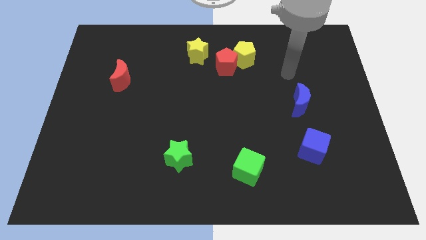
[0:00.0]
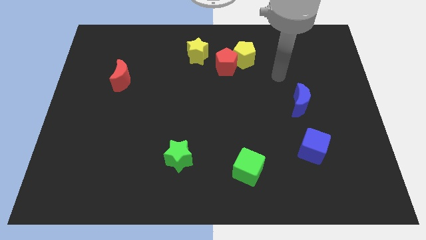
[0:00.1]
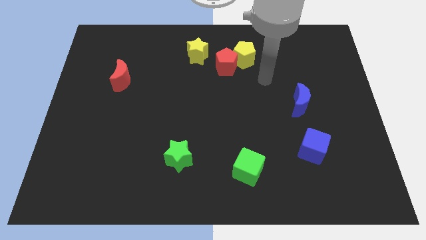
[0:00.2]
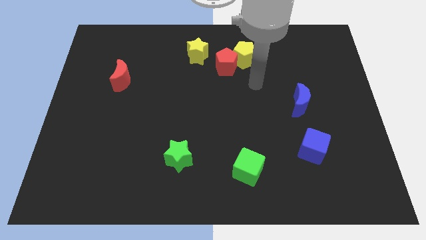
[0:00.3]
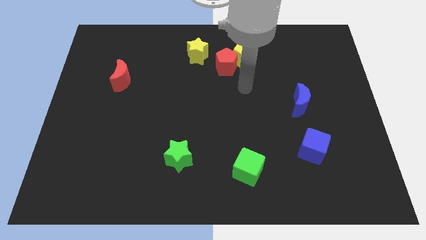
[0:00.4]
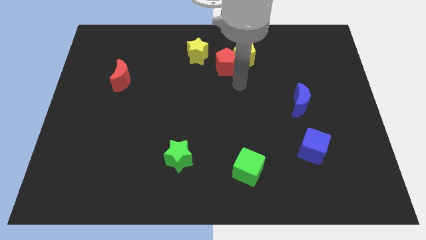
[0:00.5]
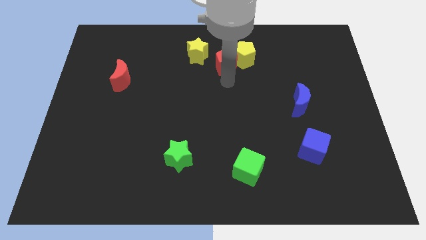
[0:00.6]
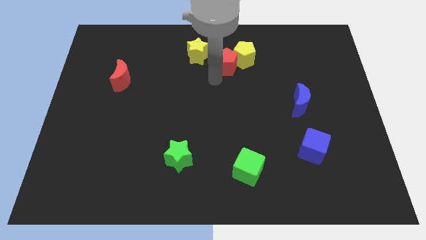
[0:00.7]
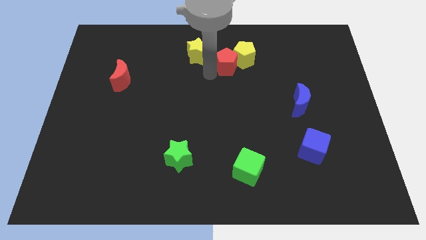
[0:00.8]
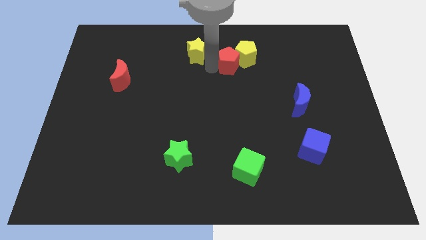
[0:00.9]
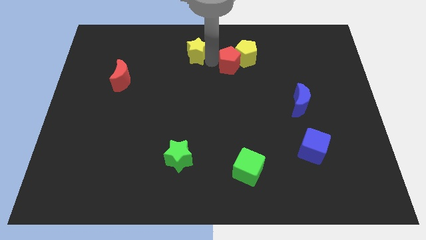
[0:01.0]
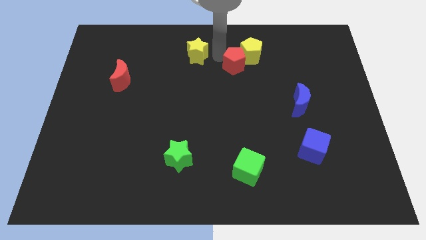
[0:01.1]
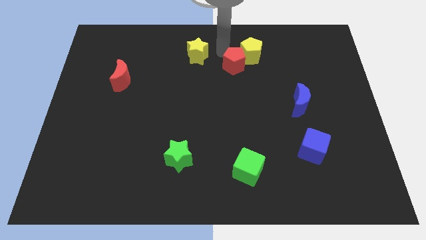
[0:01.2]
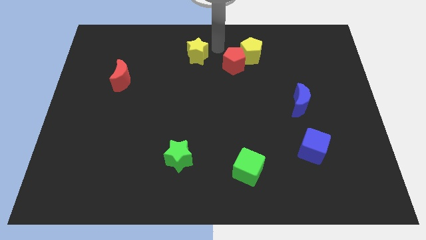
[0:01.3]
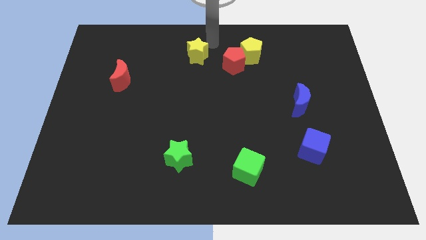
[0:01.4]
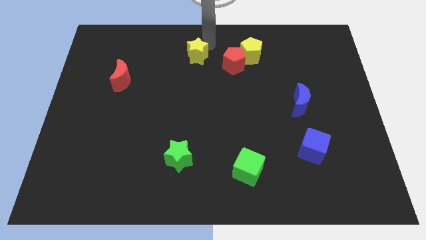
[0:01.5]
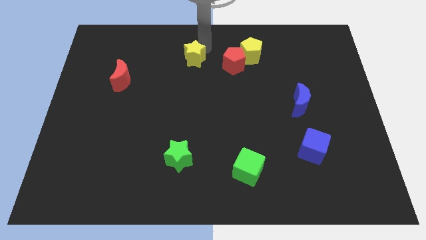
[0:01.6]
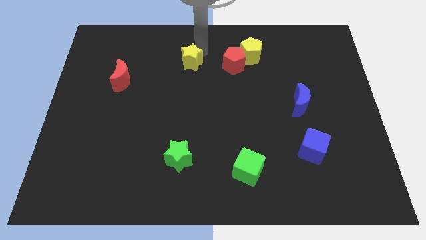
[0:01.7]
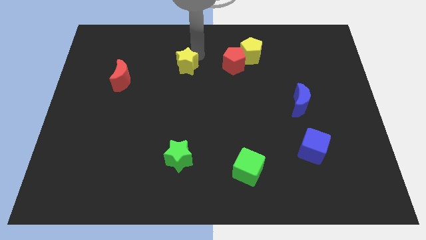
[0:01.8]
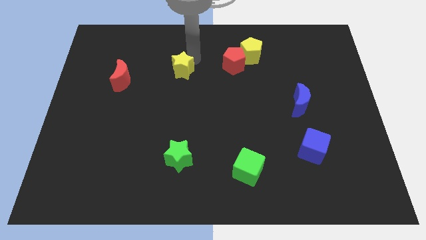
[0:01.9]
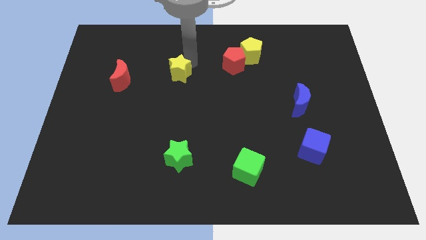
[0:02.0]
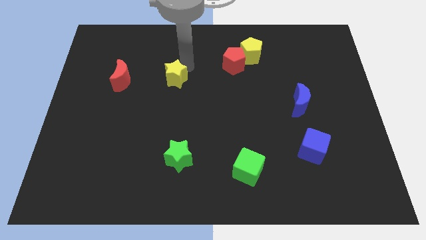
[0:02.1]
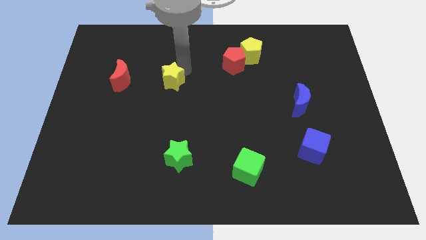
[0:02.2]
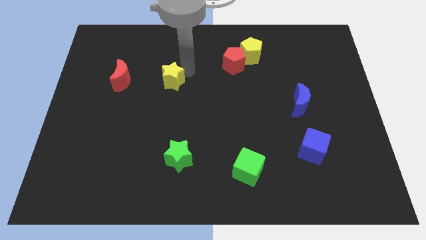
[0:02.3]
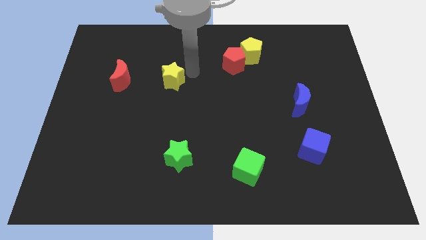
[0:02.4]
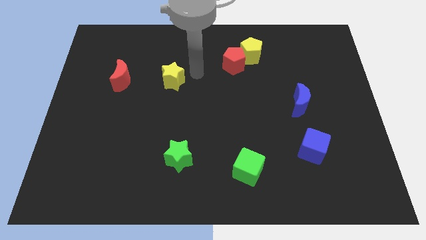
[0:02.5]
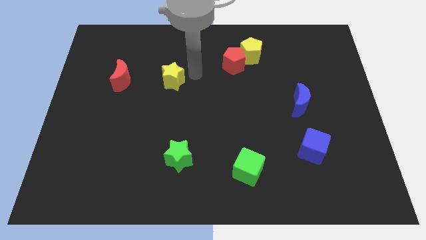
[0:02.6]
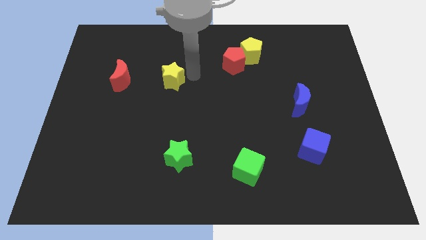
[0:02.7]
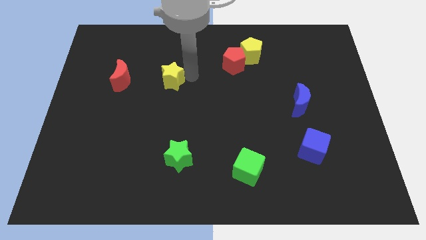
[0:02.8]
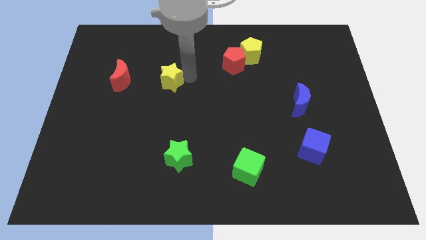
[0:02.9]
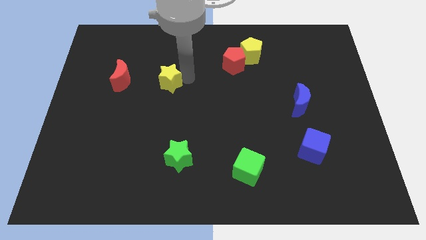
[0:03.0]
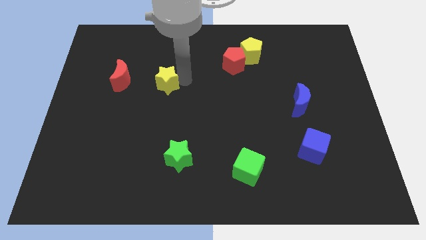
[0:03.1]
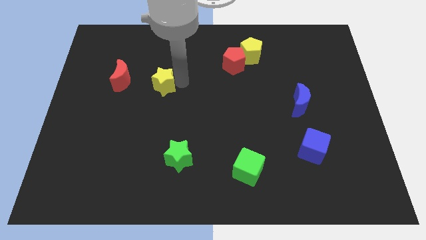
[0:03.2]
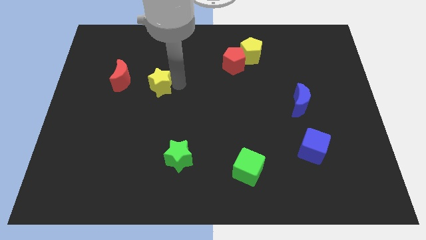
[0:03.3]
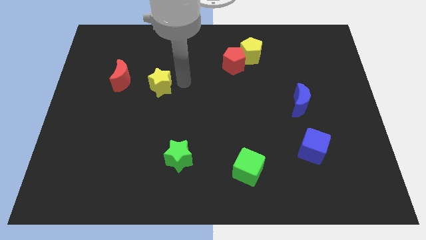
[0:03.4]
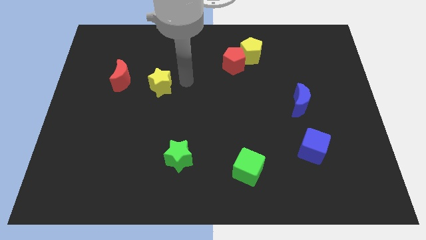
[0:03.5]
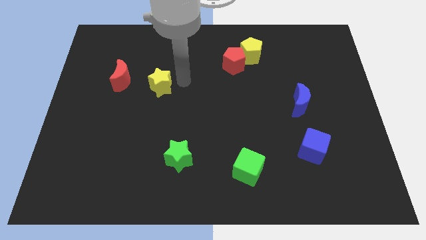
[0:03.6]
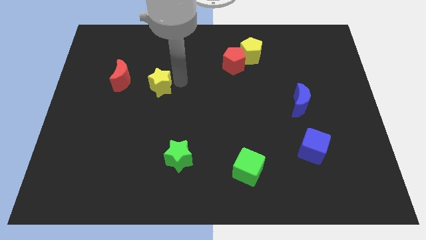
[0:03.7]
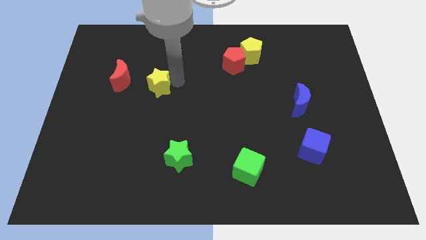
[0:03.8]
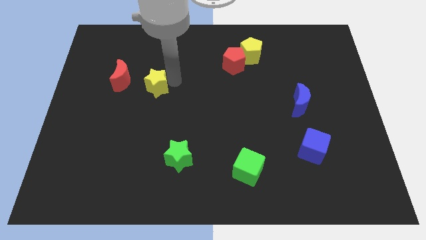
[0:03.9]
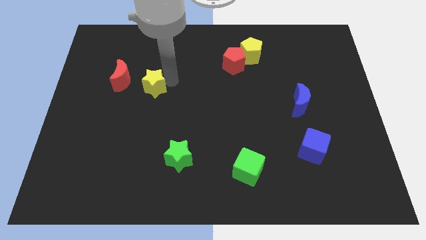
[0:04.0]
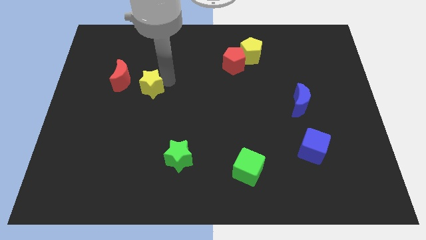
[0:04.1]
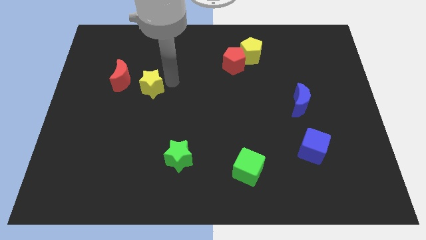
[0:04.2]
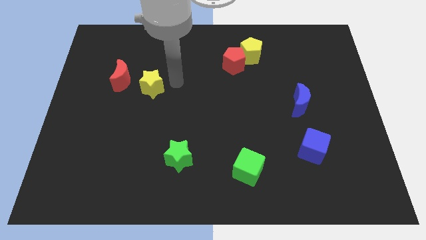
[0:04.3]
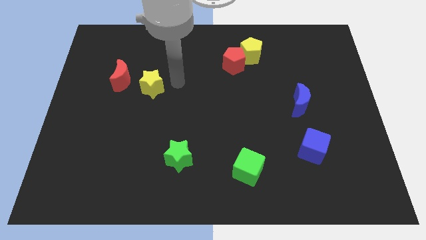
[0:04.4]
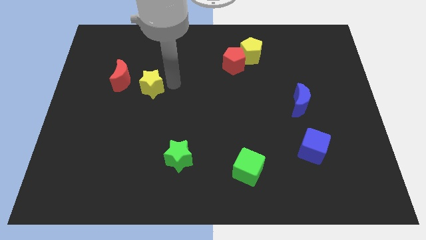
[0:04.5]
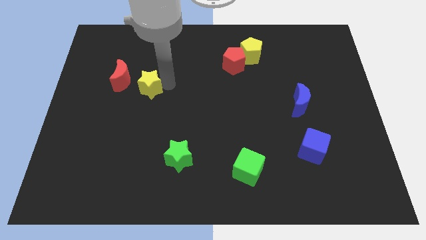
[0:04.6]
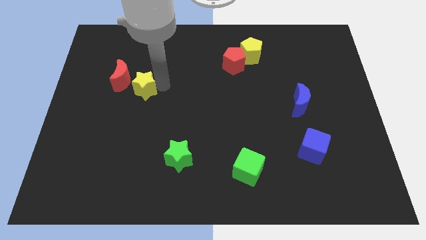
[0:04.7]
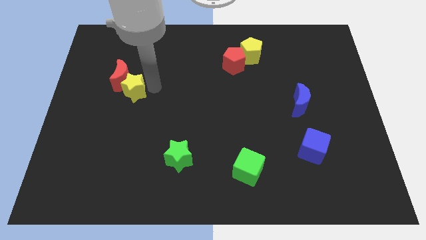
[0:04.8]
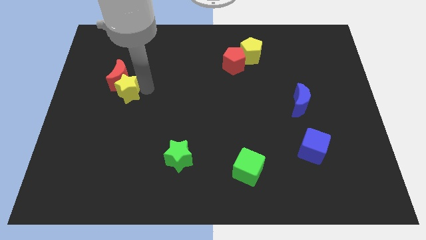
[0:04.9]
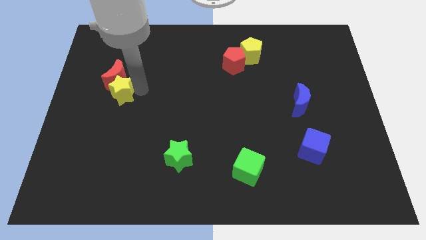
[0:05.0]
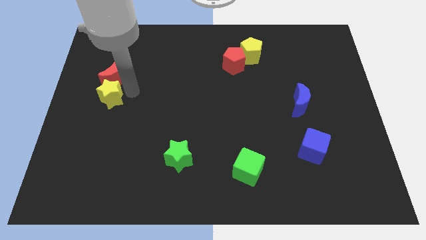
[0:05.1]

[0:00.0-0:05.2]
push the yellow star to the center left

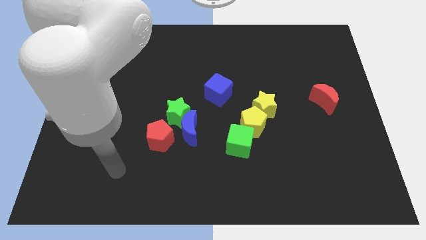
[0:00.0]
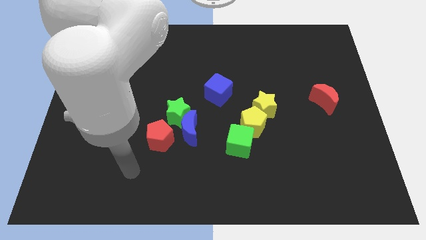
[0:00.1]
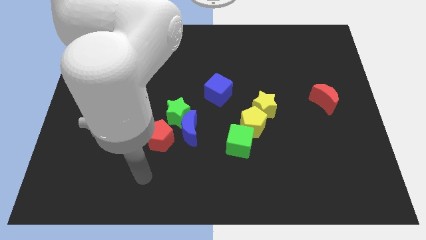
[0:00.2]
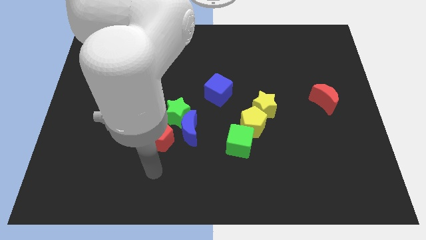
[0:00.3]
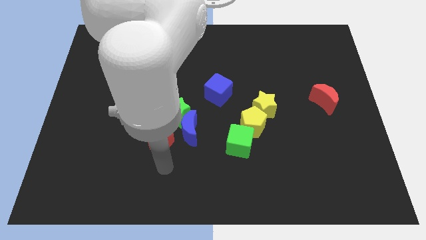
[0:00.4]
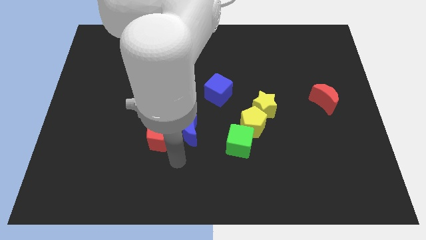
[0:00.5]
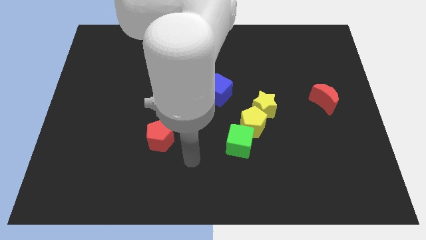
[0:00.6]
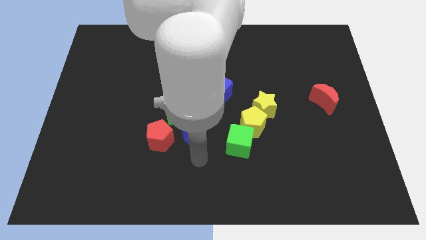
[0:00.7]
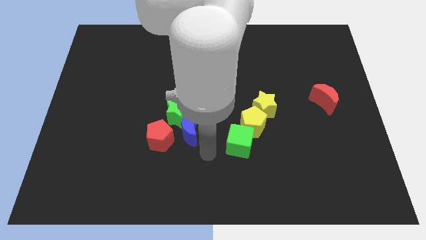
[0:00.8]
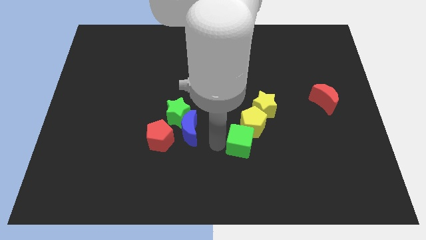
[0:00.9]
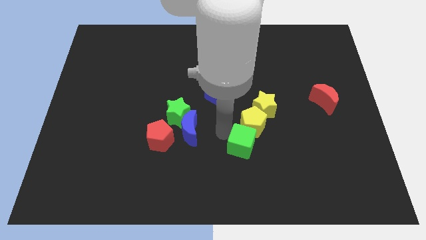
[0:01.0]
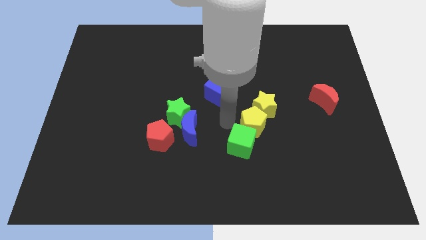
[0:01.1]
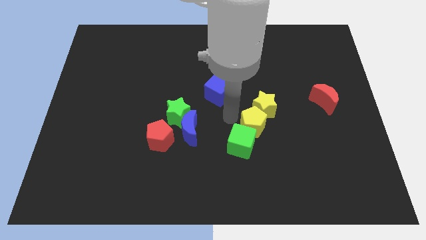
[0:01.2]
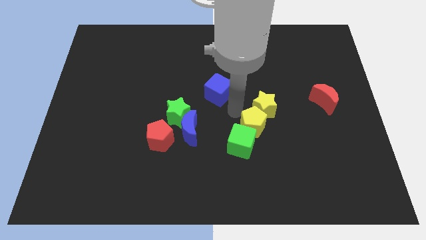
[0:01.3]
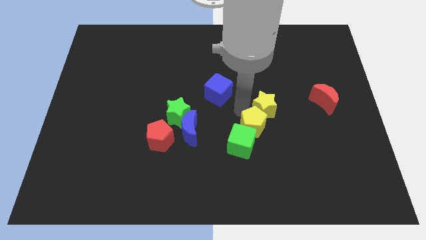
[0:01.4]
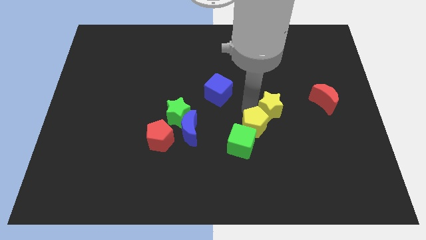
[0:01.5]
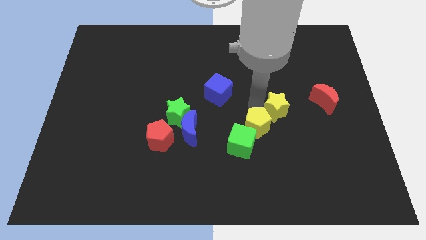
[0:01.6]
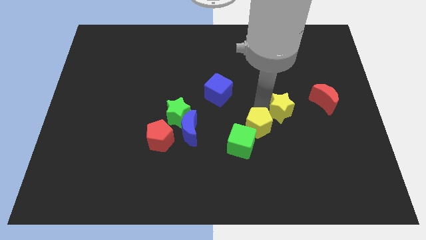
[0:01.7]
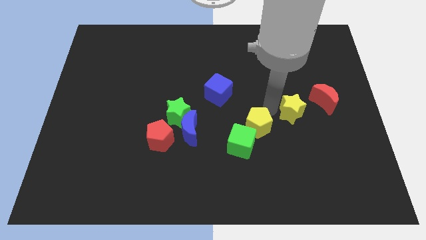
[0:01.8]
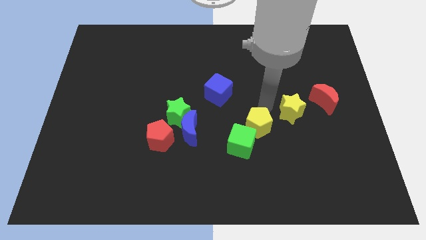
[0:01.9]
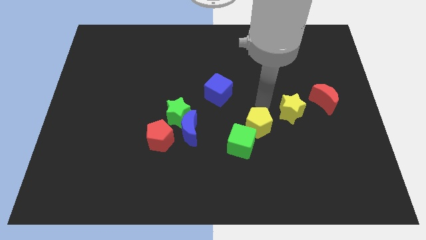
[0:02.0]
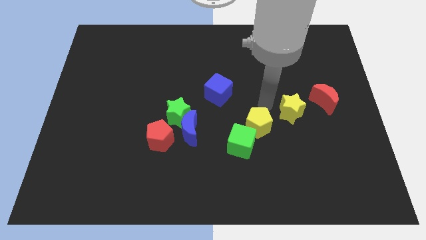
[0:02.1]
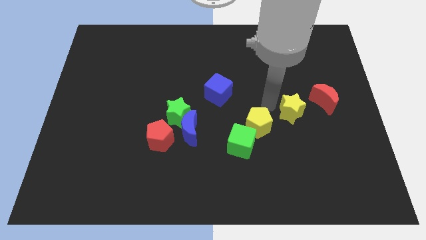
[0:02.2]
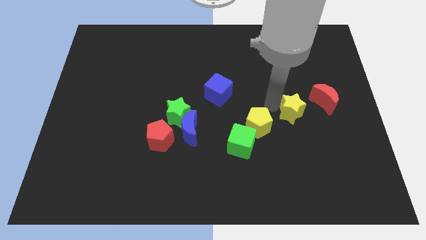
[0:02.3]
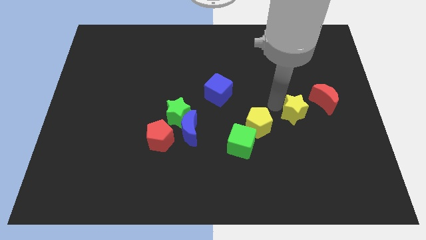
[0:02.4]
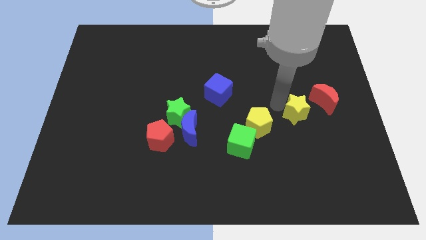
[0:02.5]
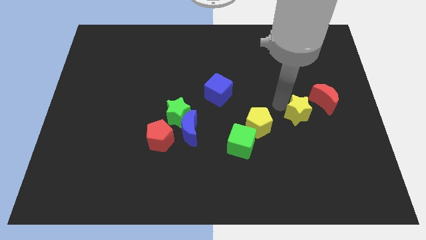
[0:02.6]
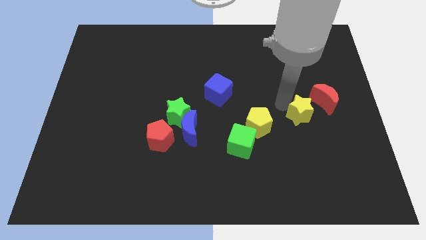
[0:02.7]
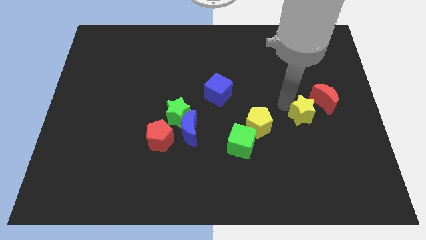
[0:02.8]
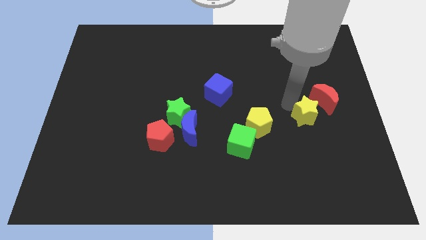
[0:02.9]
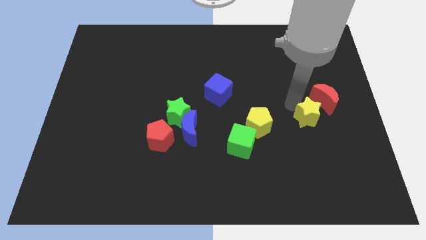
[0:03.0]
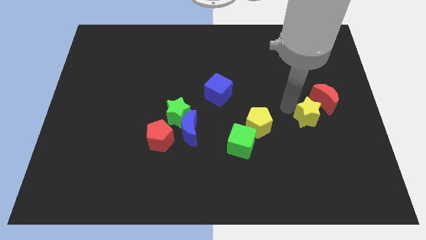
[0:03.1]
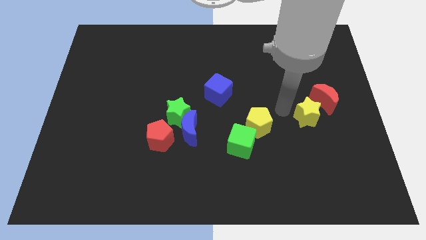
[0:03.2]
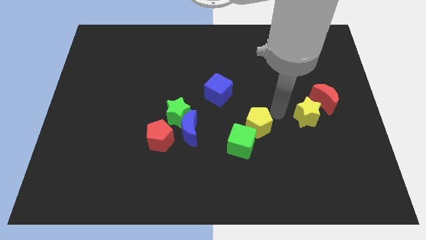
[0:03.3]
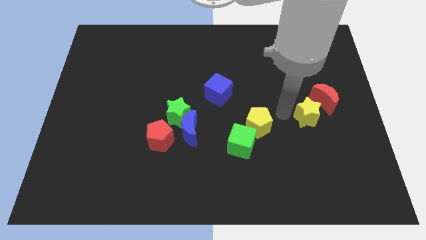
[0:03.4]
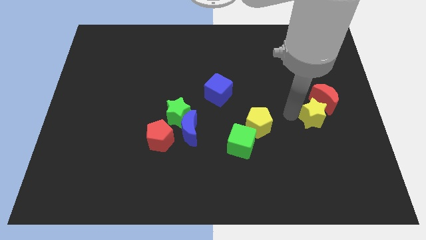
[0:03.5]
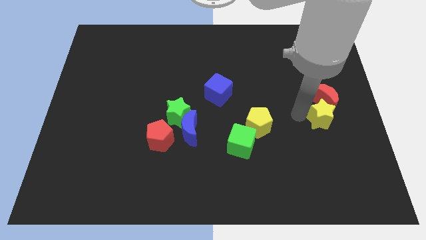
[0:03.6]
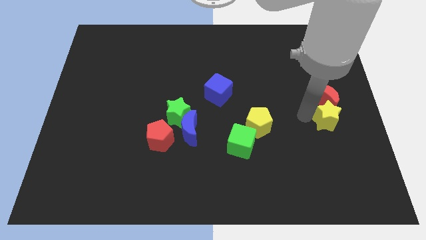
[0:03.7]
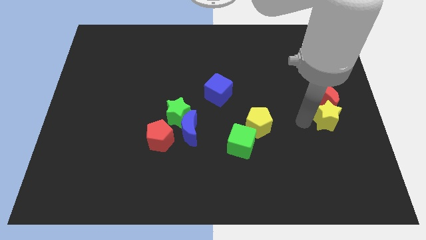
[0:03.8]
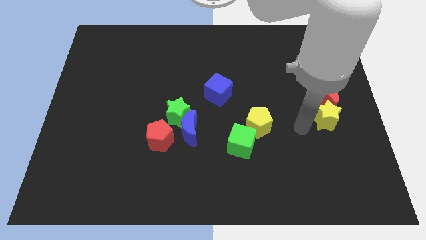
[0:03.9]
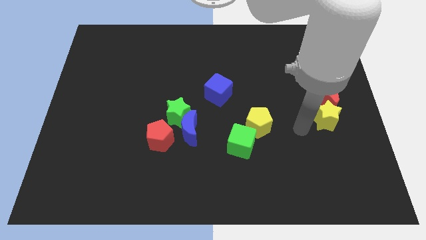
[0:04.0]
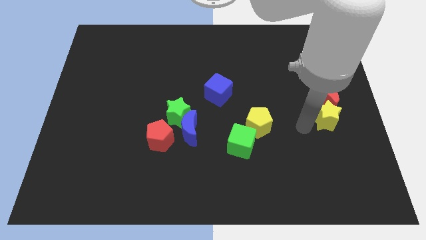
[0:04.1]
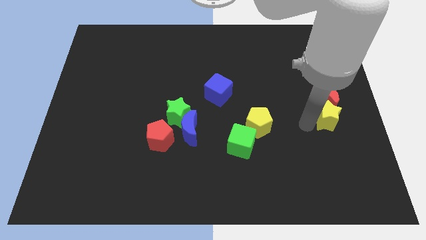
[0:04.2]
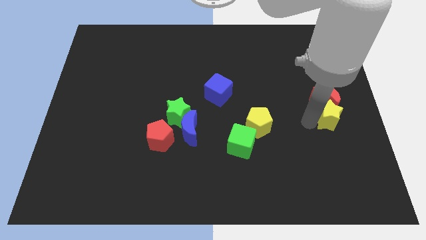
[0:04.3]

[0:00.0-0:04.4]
push the yellow star to the right side of the board
